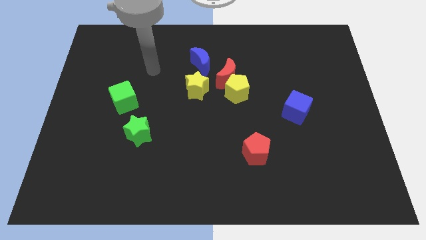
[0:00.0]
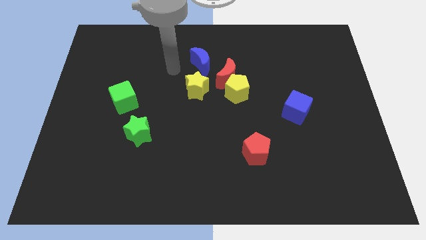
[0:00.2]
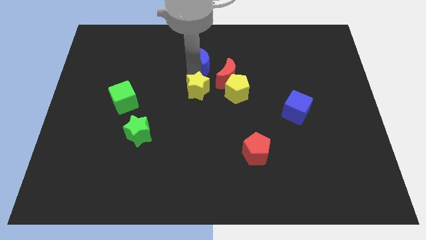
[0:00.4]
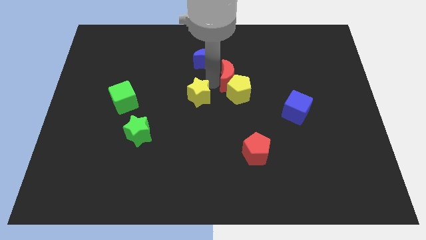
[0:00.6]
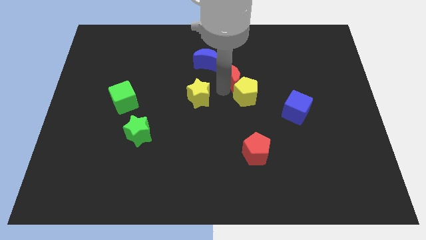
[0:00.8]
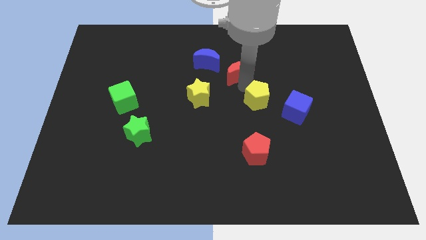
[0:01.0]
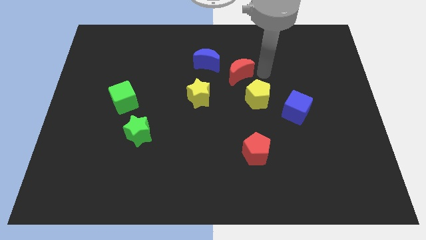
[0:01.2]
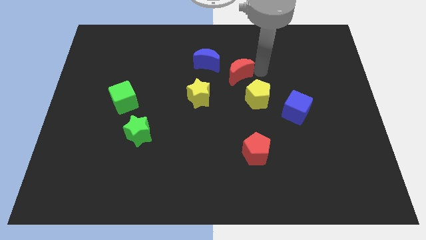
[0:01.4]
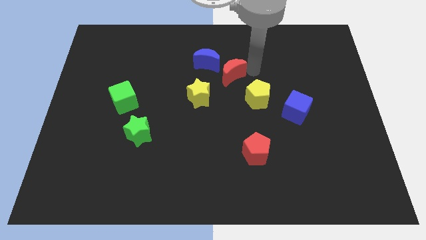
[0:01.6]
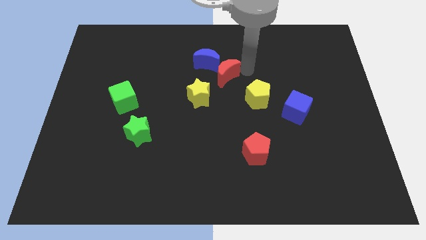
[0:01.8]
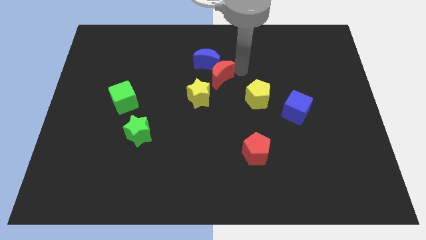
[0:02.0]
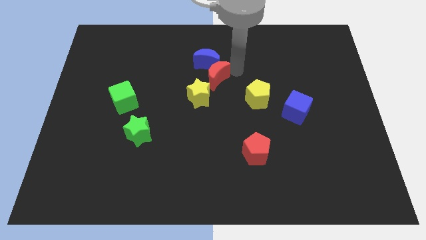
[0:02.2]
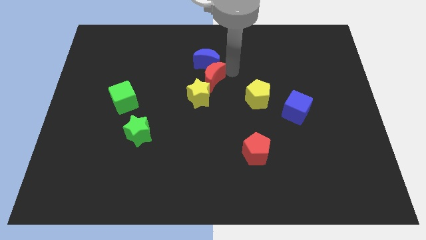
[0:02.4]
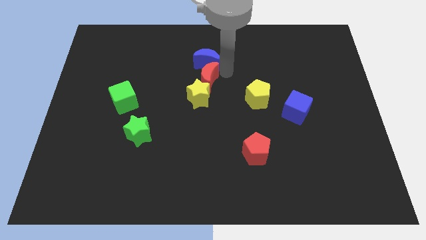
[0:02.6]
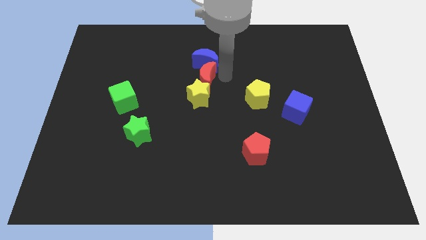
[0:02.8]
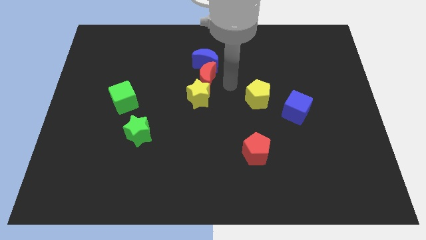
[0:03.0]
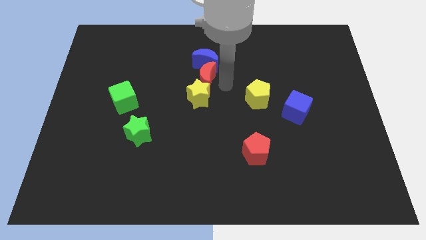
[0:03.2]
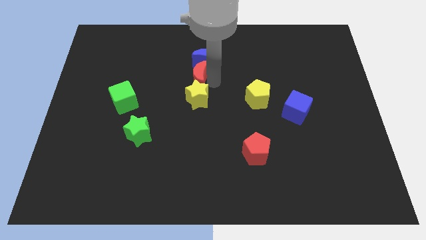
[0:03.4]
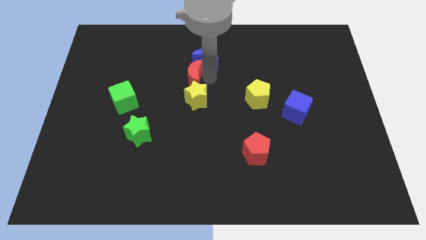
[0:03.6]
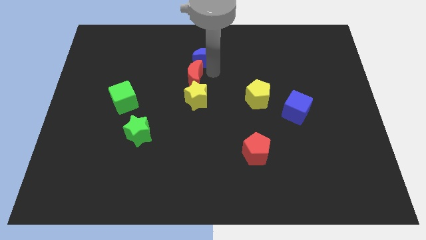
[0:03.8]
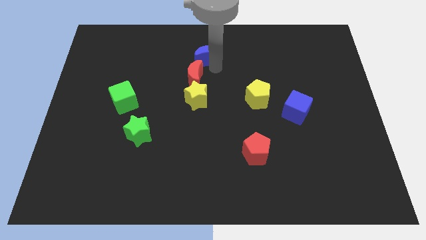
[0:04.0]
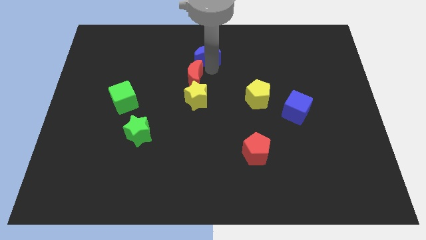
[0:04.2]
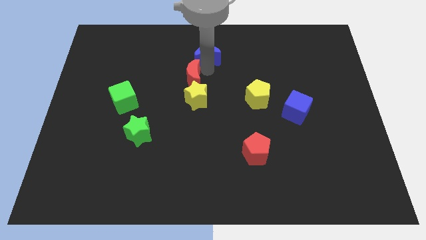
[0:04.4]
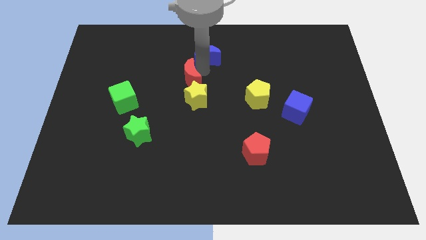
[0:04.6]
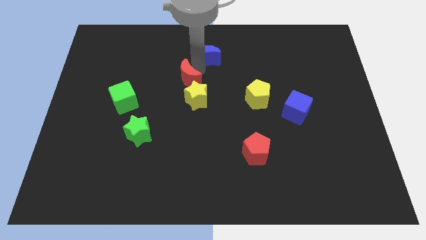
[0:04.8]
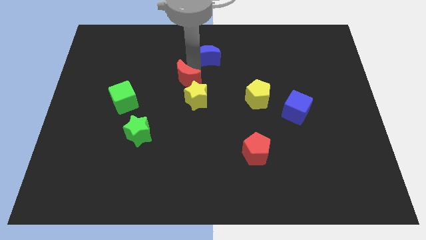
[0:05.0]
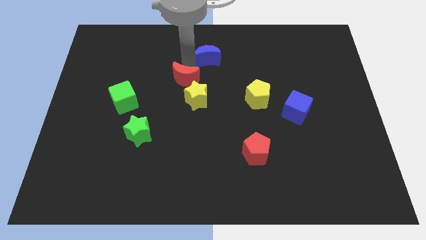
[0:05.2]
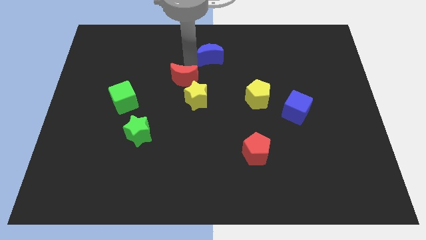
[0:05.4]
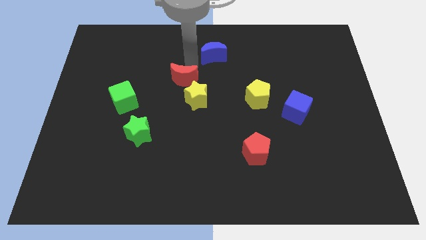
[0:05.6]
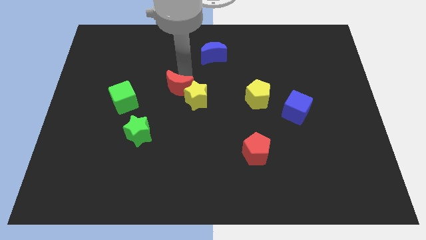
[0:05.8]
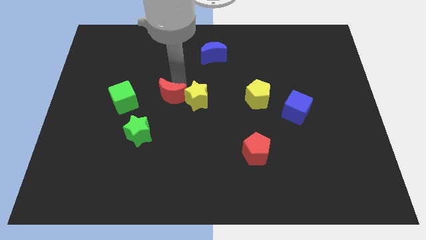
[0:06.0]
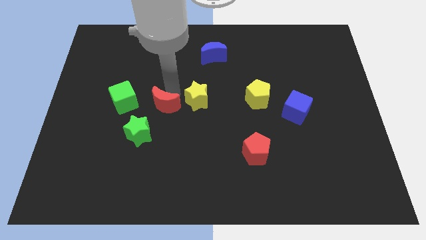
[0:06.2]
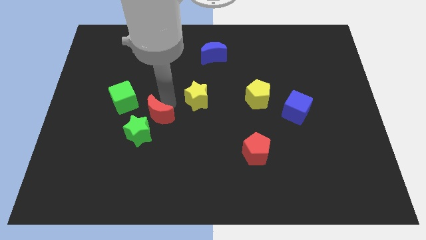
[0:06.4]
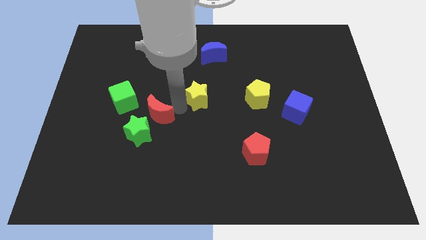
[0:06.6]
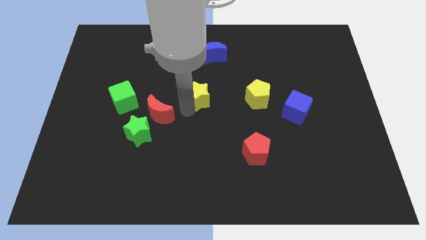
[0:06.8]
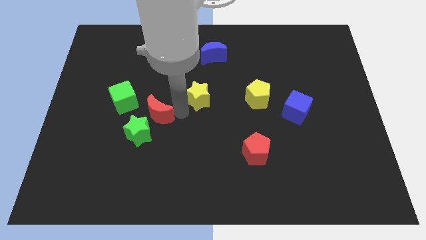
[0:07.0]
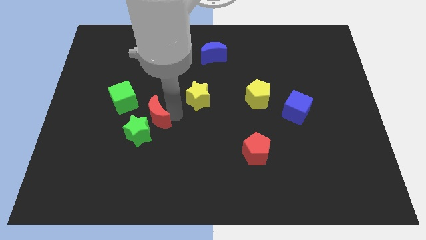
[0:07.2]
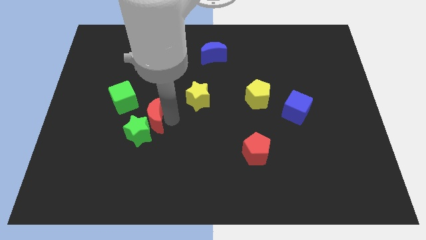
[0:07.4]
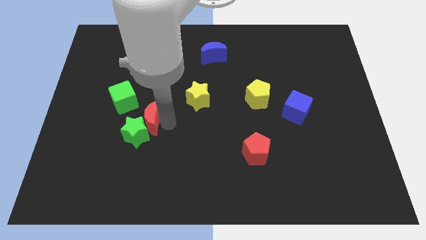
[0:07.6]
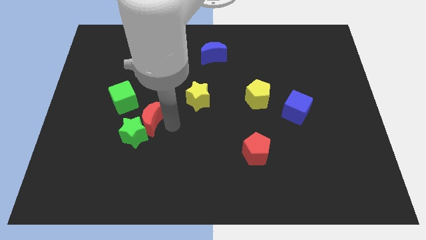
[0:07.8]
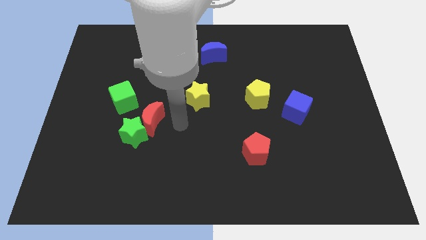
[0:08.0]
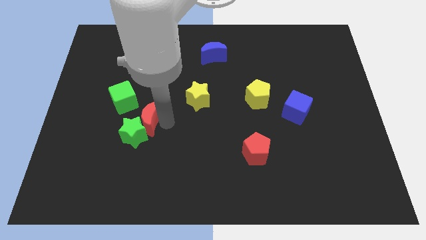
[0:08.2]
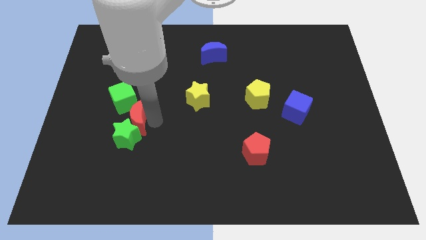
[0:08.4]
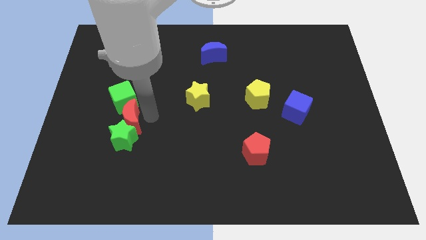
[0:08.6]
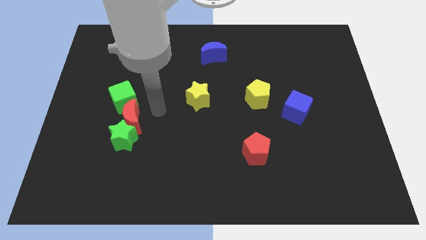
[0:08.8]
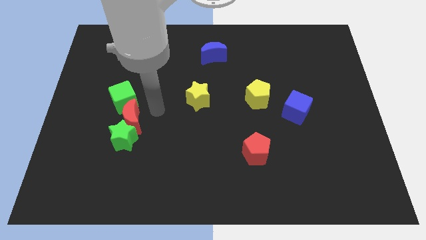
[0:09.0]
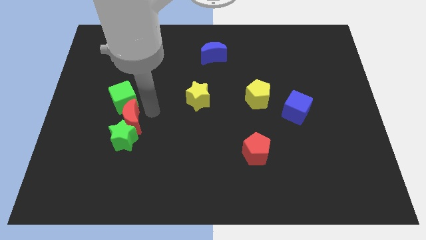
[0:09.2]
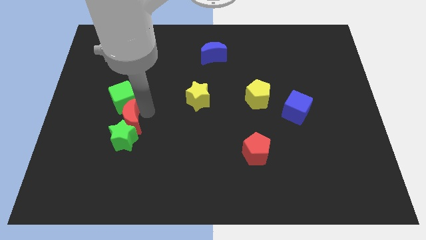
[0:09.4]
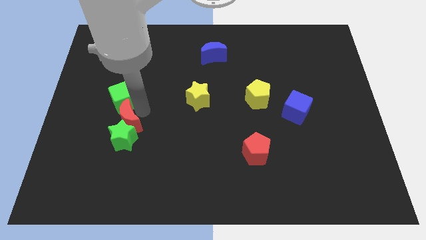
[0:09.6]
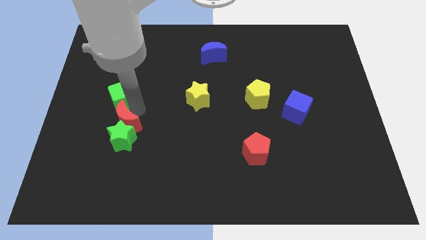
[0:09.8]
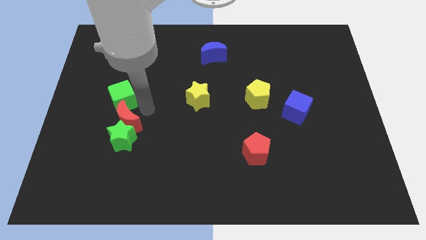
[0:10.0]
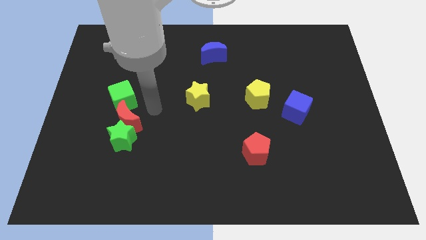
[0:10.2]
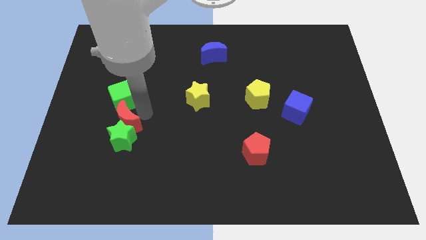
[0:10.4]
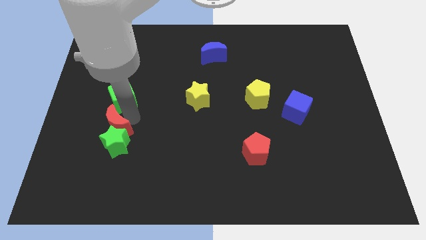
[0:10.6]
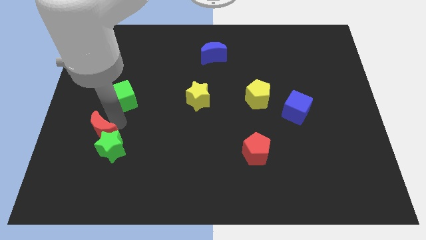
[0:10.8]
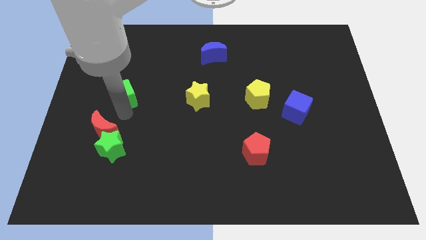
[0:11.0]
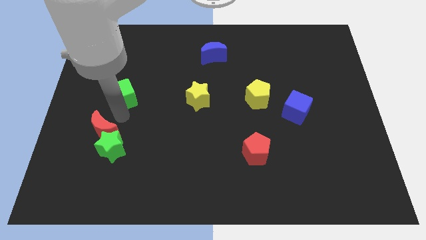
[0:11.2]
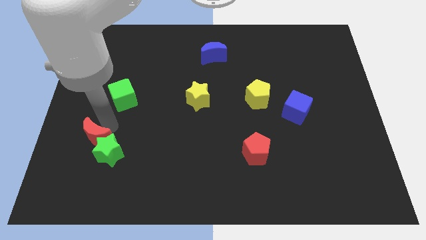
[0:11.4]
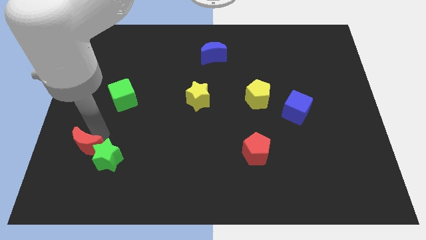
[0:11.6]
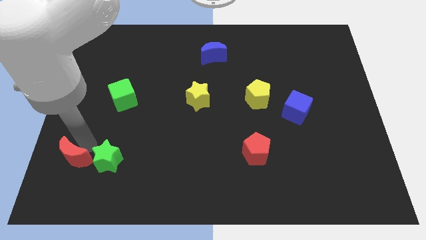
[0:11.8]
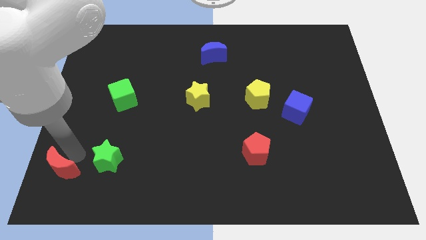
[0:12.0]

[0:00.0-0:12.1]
push the red moon to the bottom left of the board
